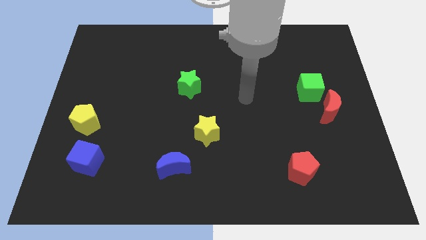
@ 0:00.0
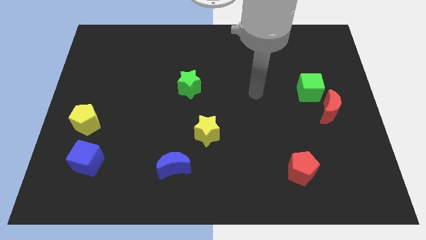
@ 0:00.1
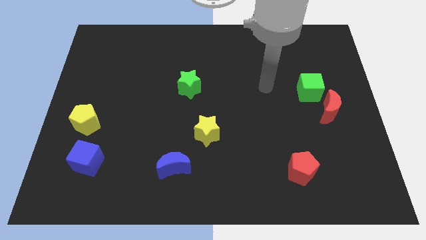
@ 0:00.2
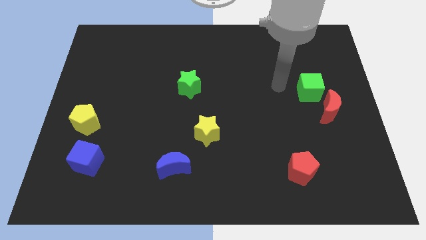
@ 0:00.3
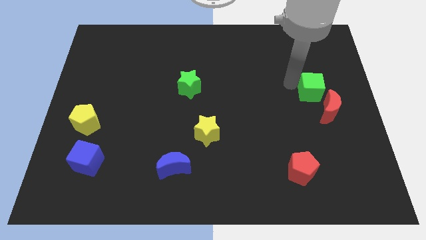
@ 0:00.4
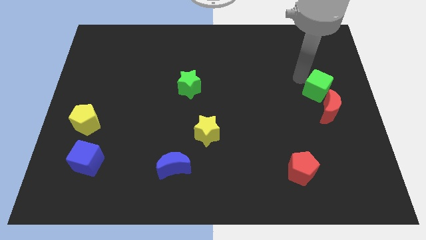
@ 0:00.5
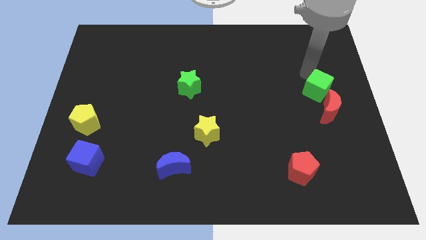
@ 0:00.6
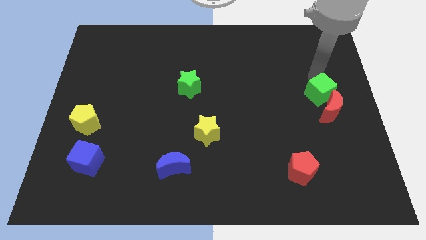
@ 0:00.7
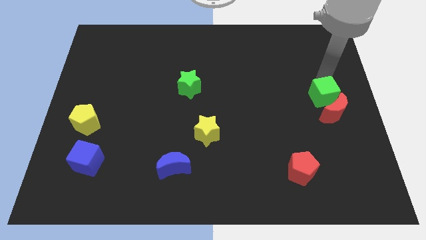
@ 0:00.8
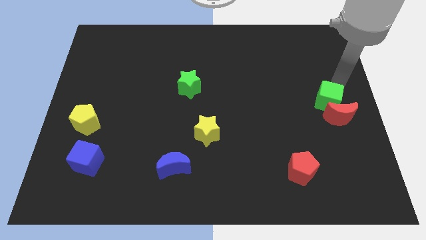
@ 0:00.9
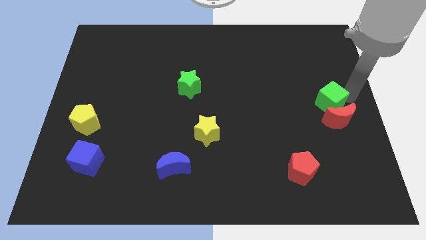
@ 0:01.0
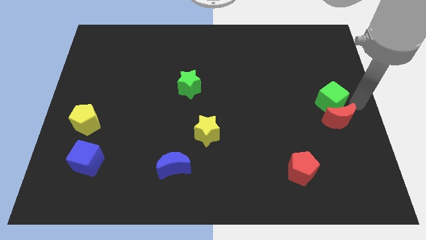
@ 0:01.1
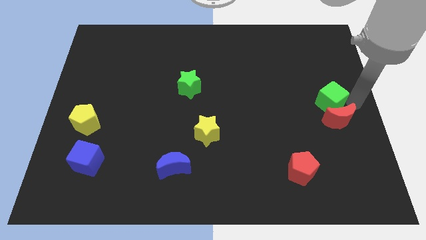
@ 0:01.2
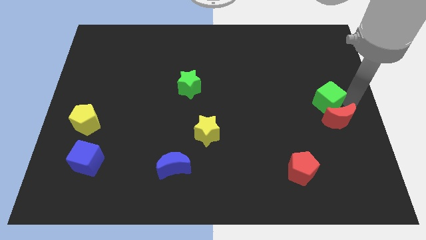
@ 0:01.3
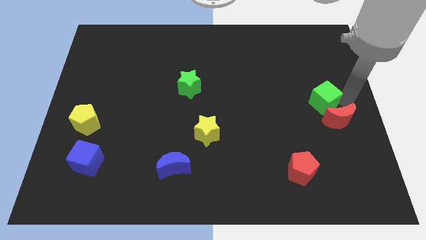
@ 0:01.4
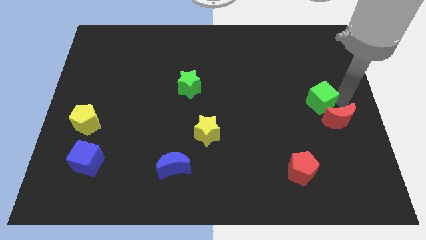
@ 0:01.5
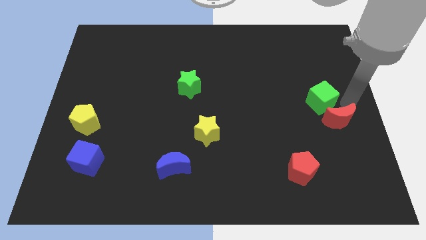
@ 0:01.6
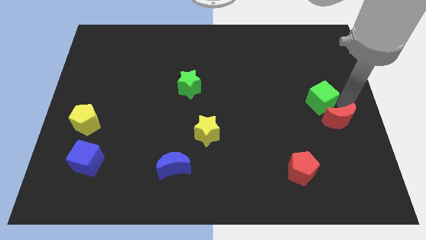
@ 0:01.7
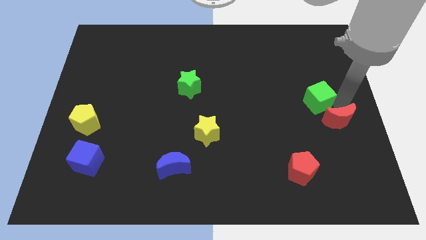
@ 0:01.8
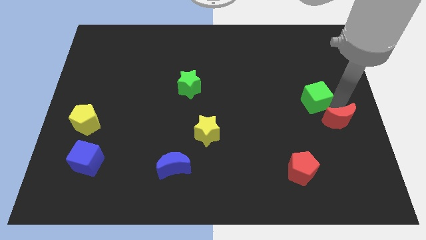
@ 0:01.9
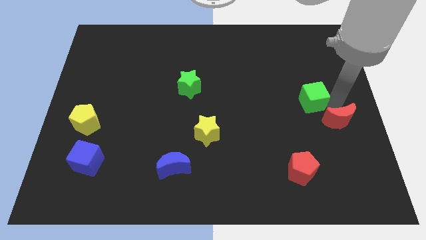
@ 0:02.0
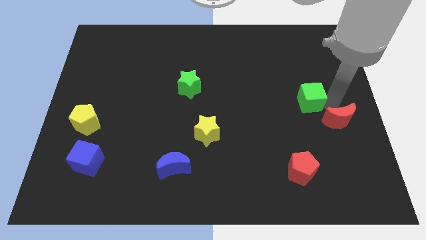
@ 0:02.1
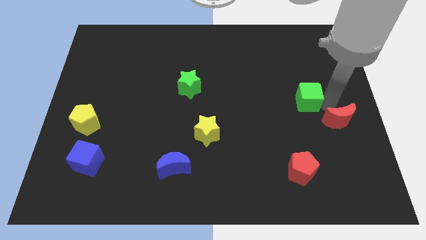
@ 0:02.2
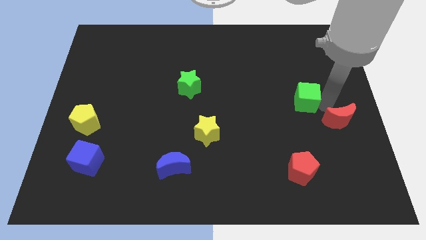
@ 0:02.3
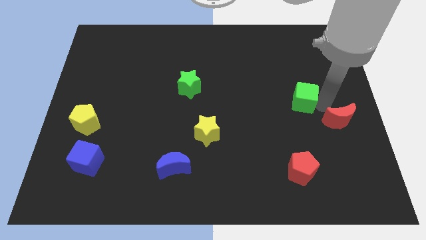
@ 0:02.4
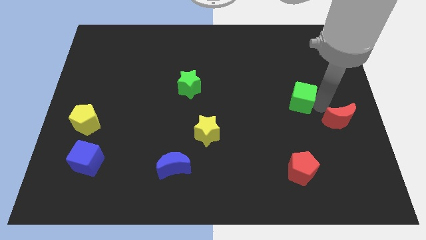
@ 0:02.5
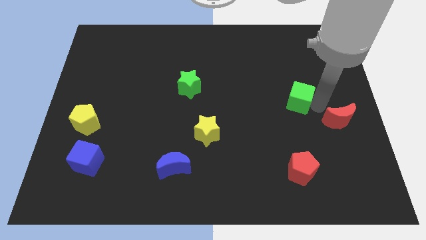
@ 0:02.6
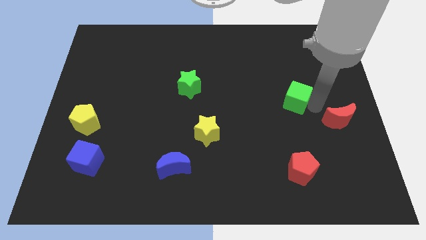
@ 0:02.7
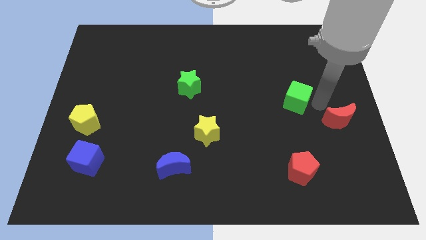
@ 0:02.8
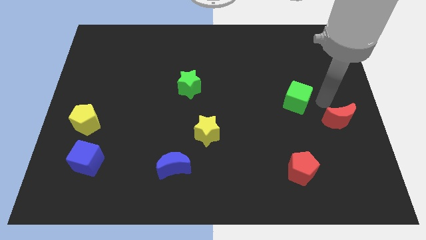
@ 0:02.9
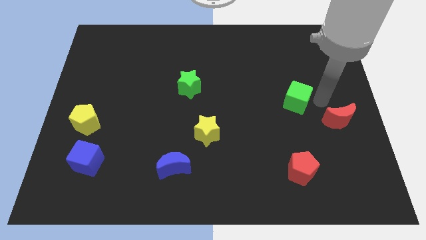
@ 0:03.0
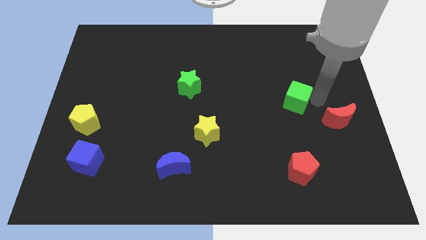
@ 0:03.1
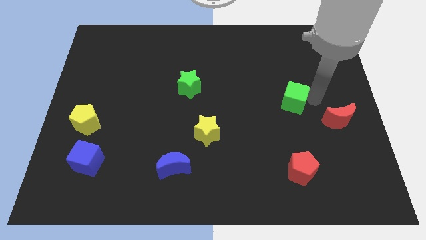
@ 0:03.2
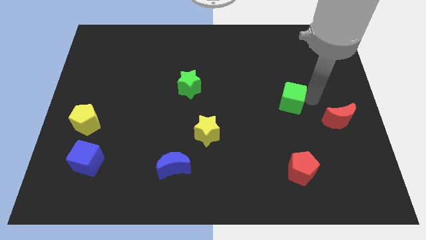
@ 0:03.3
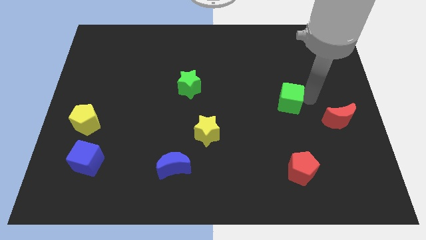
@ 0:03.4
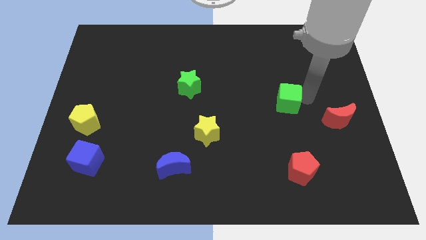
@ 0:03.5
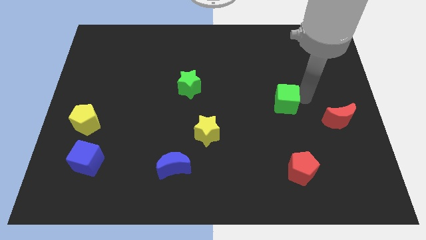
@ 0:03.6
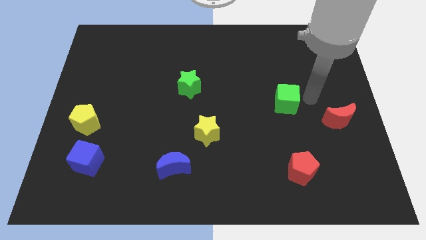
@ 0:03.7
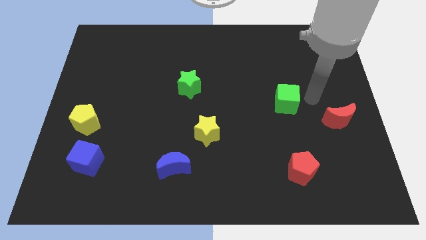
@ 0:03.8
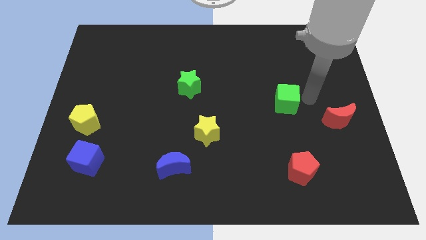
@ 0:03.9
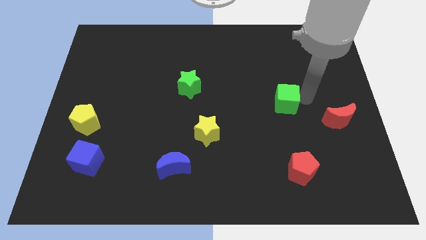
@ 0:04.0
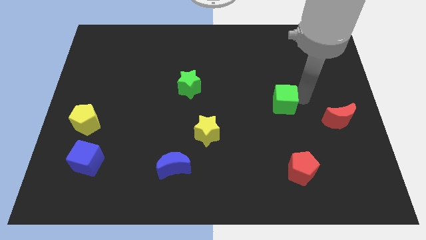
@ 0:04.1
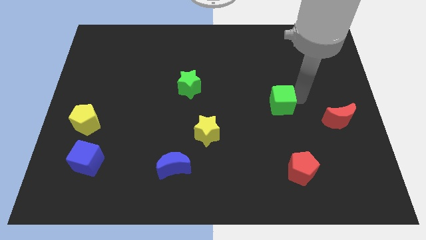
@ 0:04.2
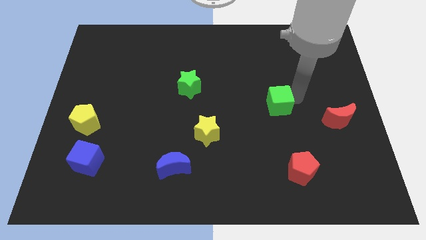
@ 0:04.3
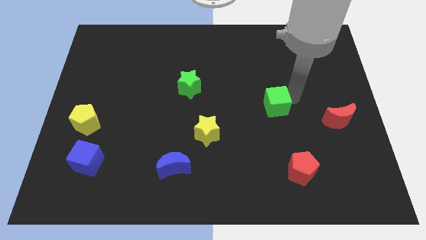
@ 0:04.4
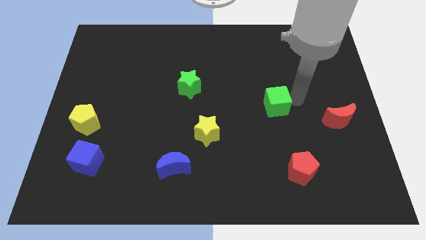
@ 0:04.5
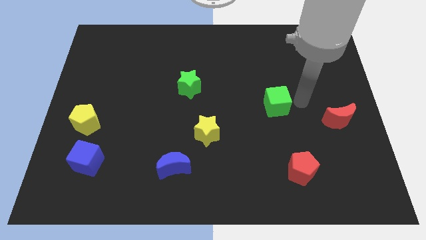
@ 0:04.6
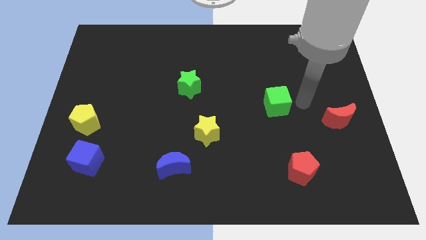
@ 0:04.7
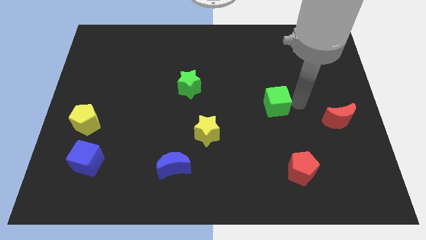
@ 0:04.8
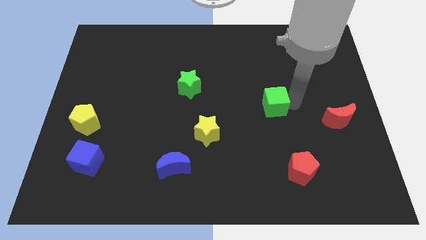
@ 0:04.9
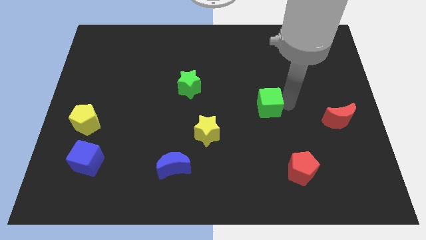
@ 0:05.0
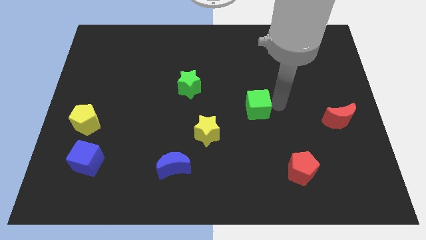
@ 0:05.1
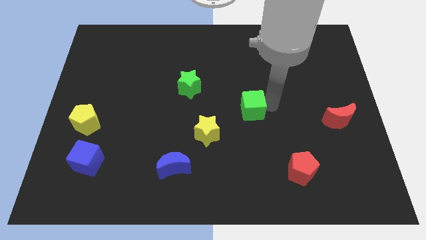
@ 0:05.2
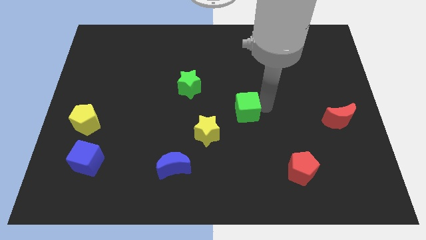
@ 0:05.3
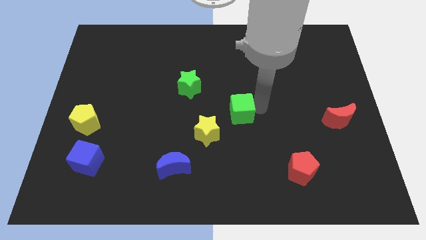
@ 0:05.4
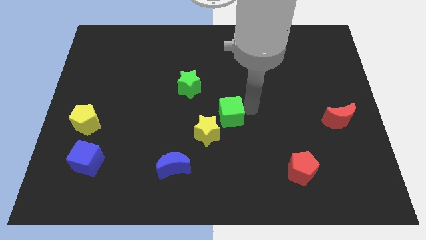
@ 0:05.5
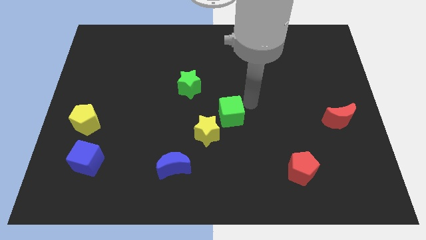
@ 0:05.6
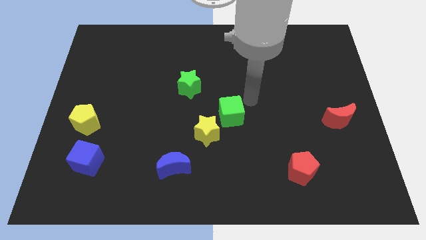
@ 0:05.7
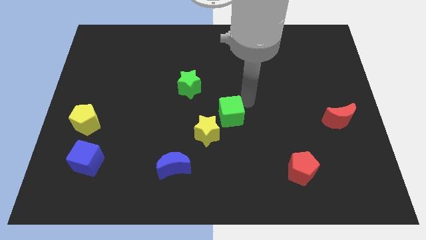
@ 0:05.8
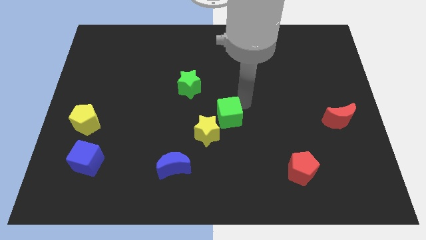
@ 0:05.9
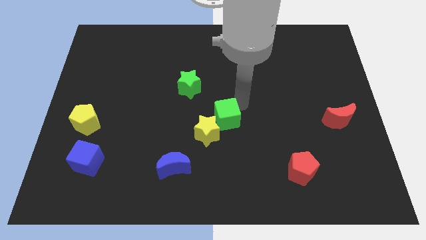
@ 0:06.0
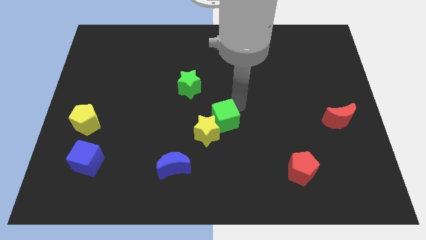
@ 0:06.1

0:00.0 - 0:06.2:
put the green cube close to the yellow star
